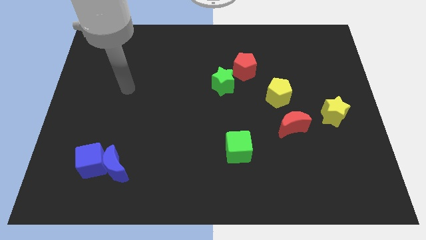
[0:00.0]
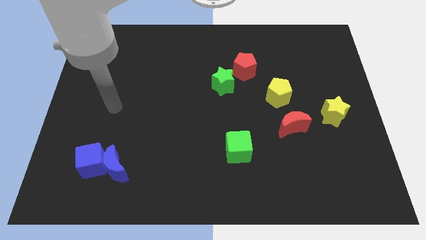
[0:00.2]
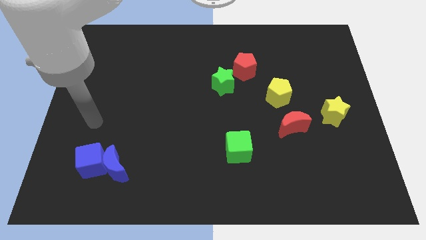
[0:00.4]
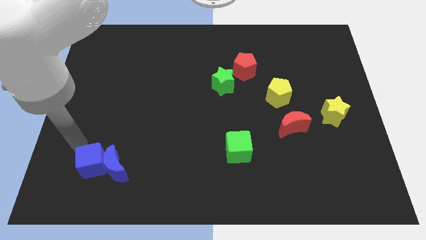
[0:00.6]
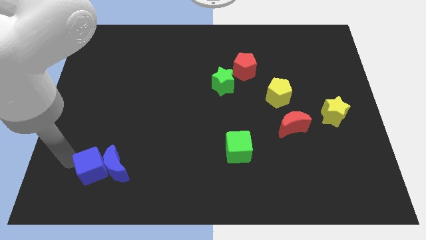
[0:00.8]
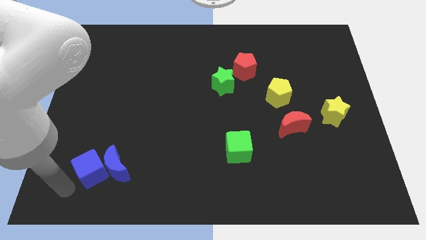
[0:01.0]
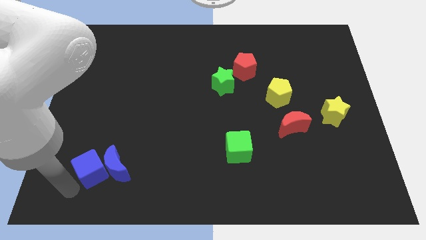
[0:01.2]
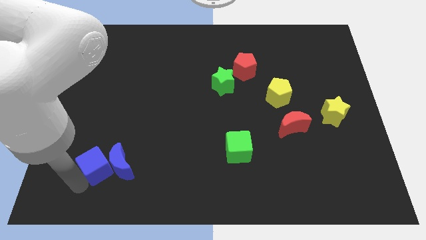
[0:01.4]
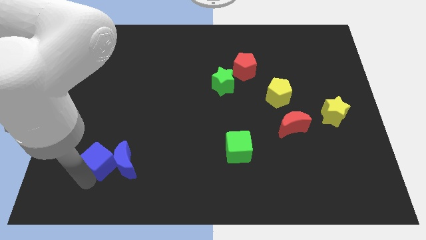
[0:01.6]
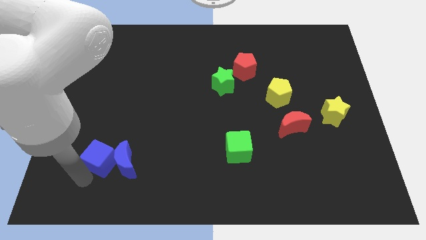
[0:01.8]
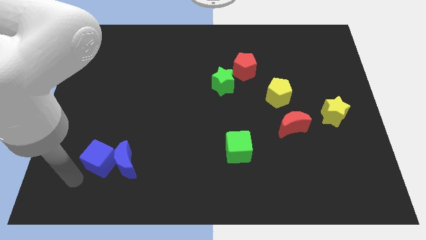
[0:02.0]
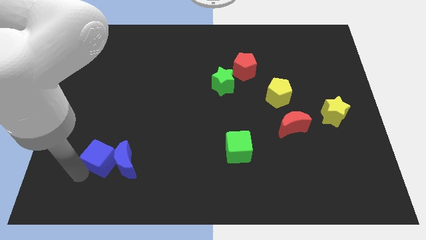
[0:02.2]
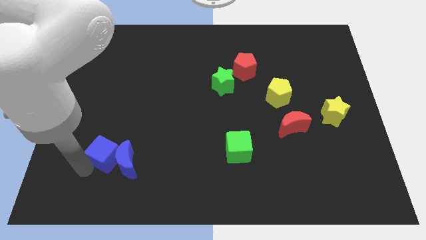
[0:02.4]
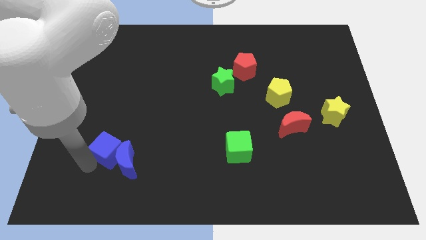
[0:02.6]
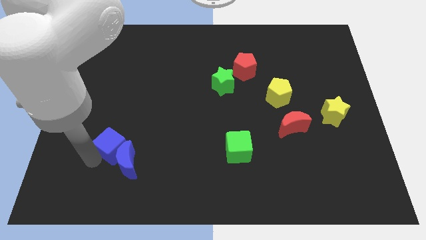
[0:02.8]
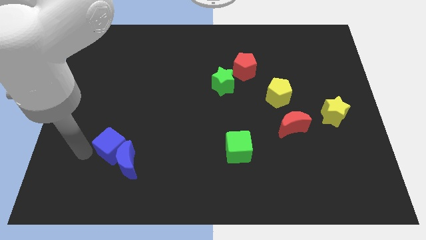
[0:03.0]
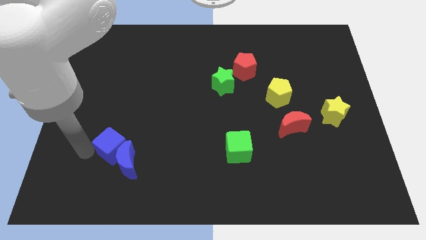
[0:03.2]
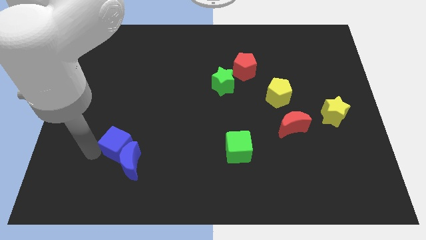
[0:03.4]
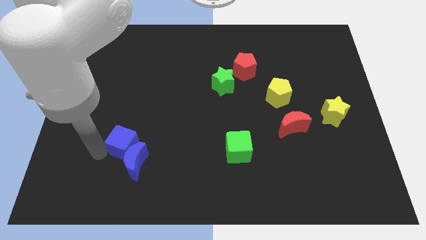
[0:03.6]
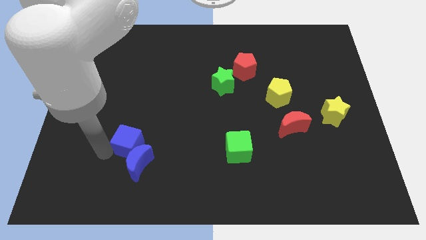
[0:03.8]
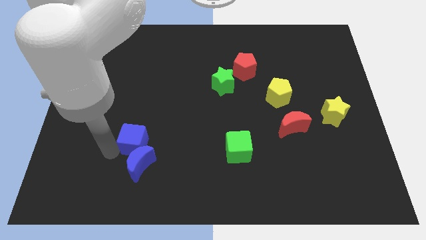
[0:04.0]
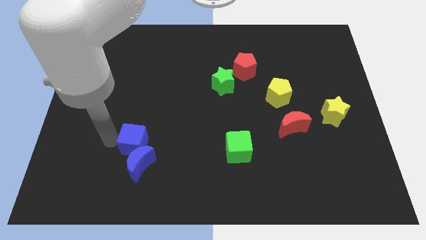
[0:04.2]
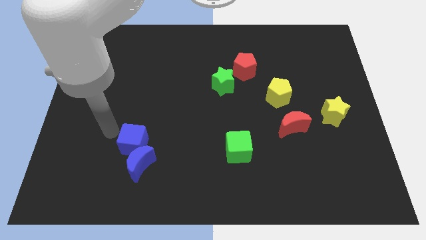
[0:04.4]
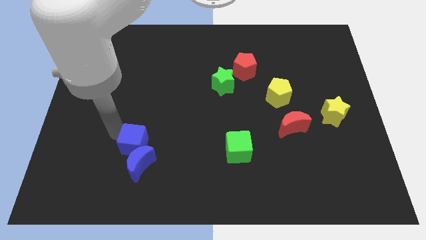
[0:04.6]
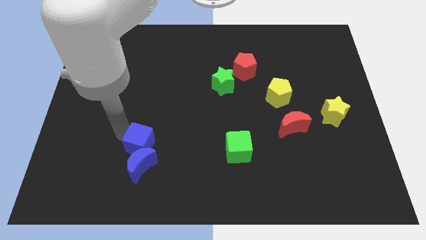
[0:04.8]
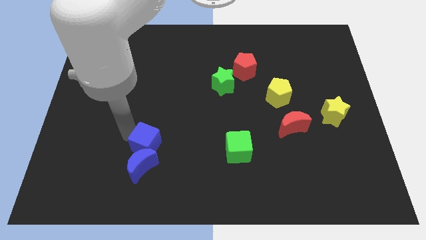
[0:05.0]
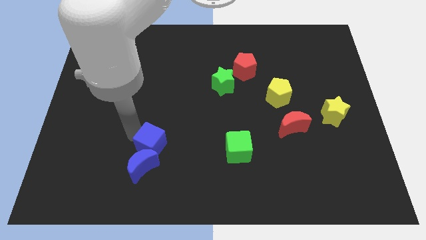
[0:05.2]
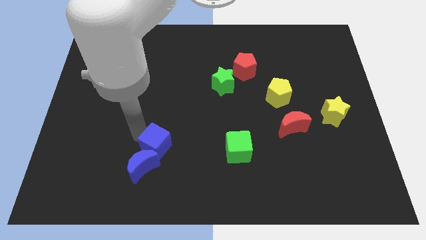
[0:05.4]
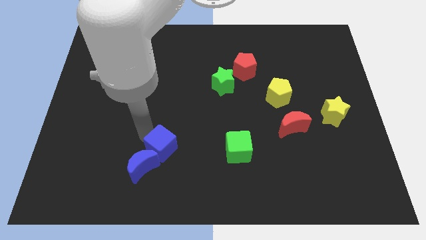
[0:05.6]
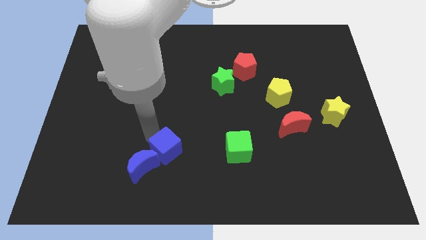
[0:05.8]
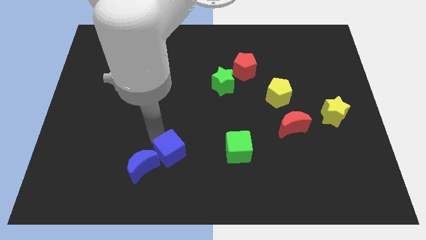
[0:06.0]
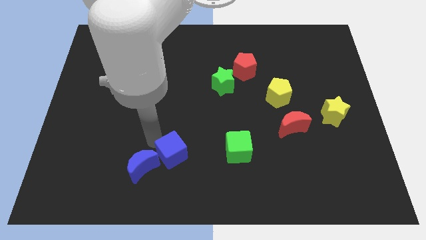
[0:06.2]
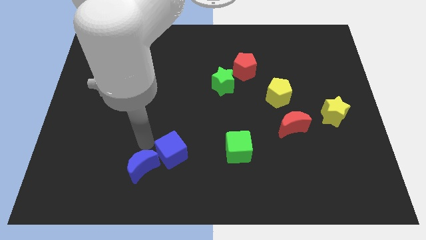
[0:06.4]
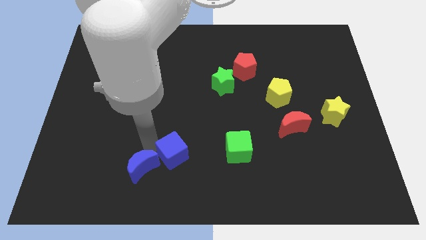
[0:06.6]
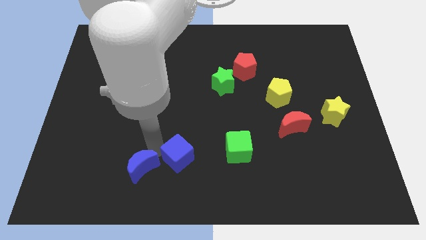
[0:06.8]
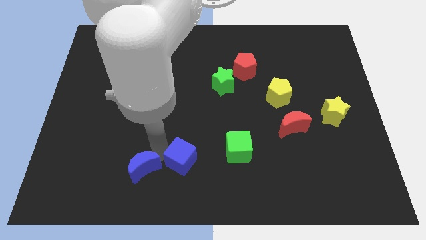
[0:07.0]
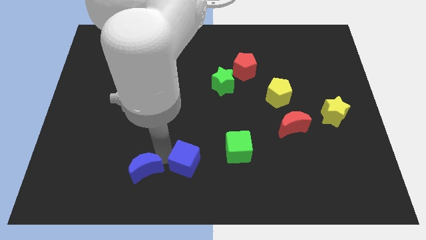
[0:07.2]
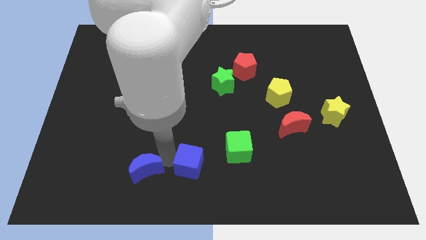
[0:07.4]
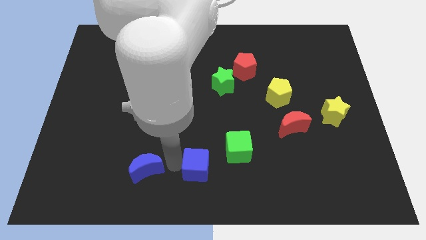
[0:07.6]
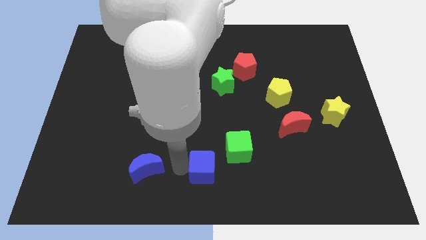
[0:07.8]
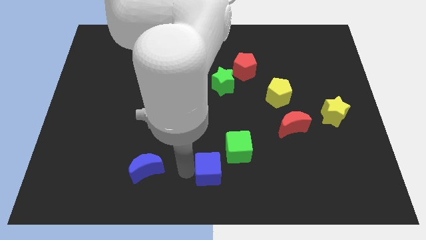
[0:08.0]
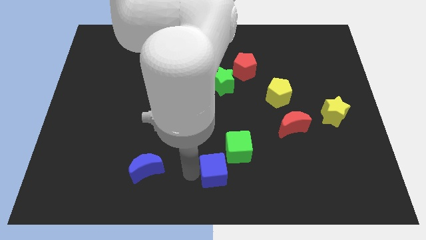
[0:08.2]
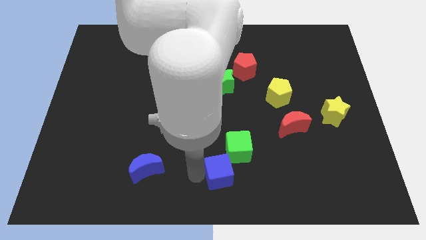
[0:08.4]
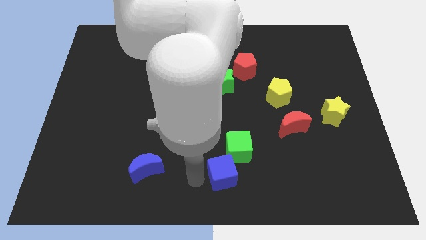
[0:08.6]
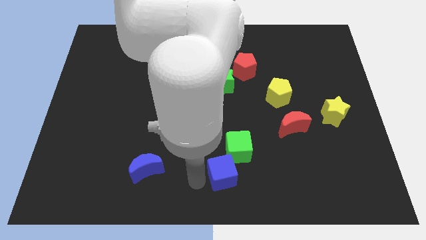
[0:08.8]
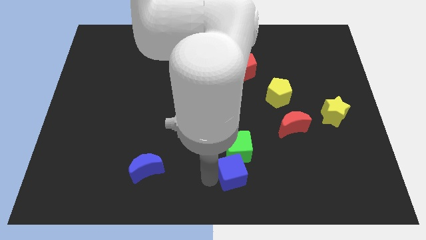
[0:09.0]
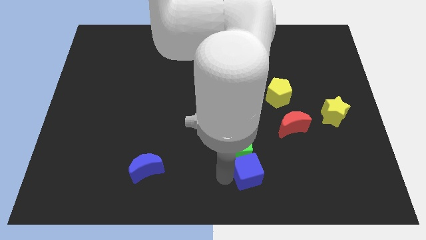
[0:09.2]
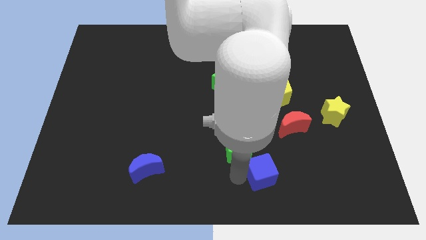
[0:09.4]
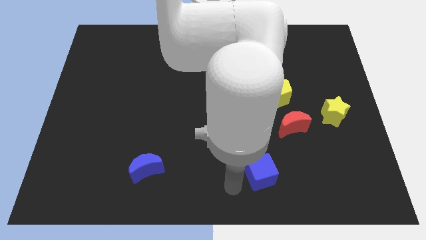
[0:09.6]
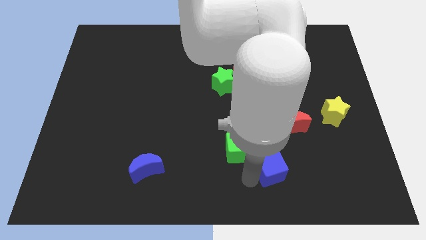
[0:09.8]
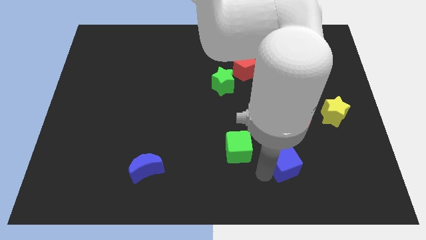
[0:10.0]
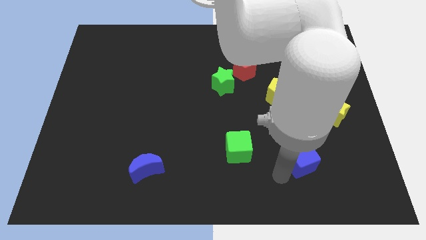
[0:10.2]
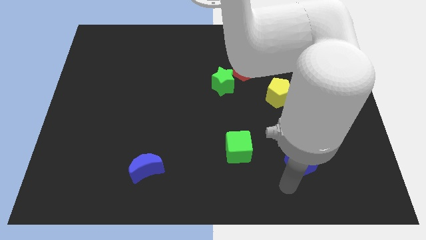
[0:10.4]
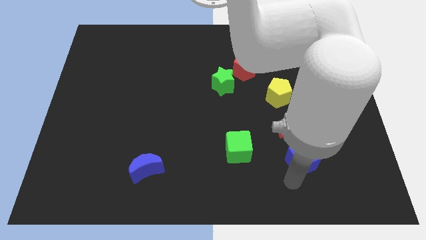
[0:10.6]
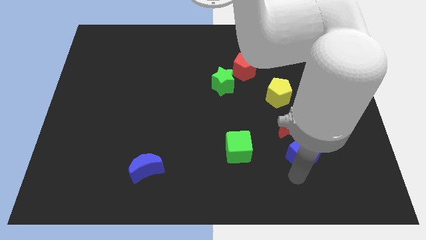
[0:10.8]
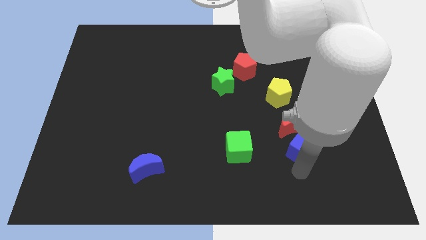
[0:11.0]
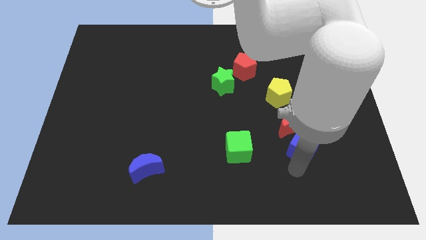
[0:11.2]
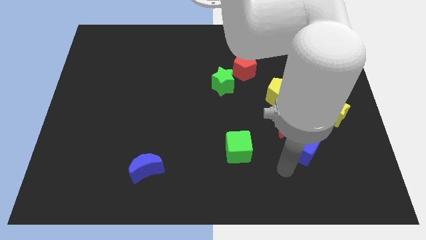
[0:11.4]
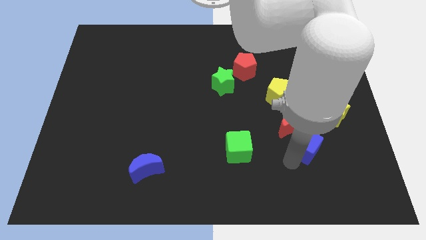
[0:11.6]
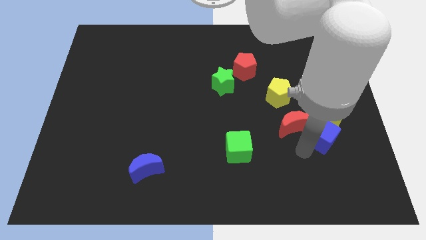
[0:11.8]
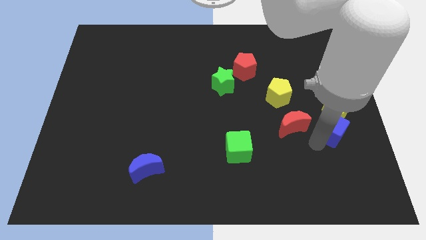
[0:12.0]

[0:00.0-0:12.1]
push the blue cube towards the yellow star

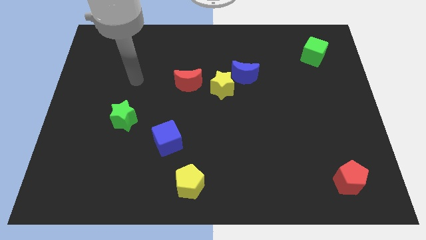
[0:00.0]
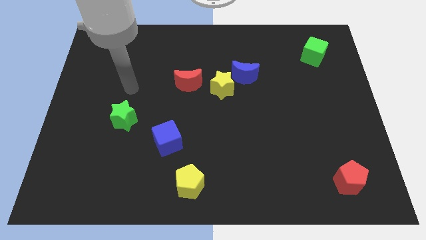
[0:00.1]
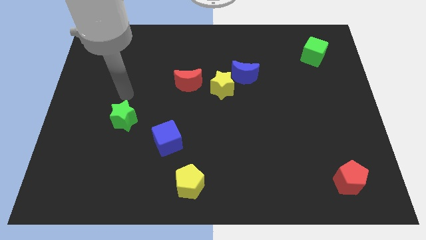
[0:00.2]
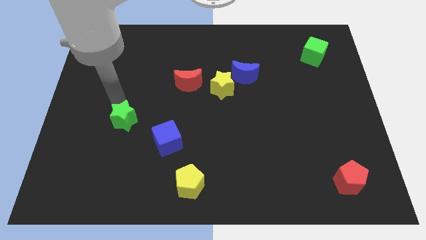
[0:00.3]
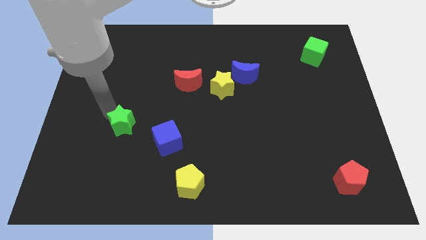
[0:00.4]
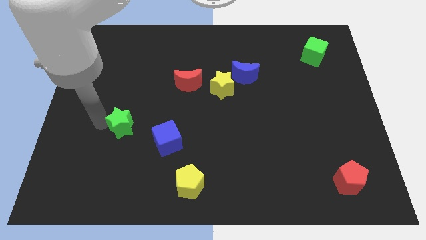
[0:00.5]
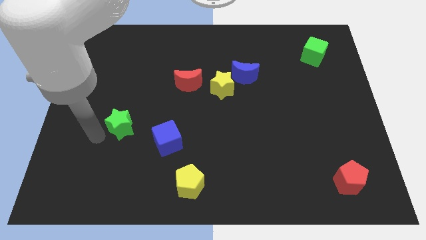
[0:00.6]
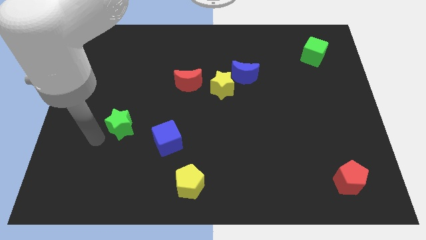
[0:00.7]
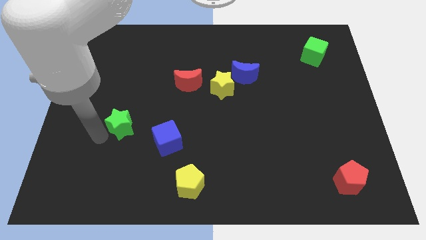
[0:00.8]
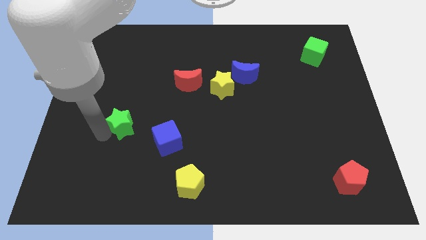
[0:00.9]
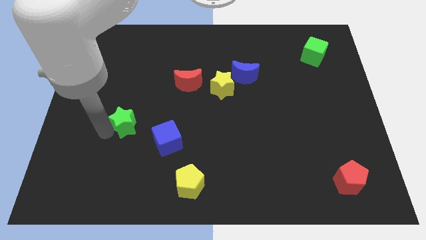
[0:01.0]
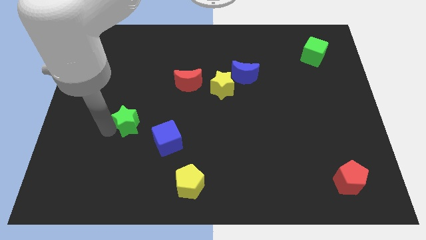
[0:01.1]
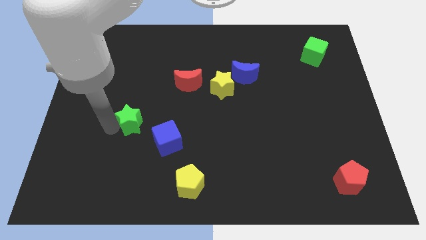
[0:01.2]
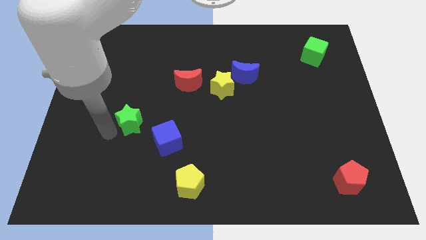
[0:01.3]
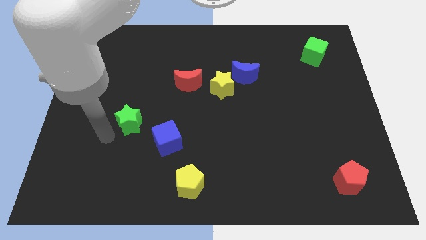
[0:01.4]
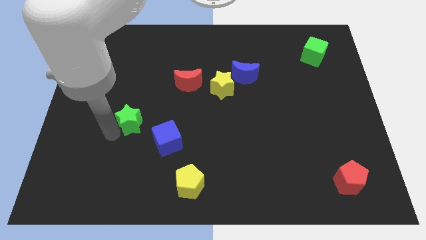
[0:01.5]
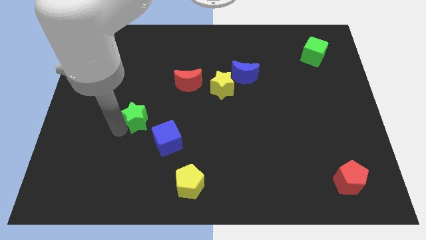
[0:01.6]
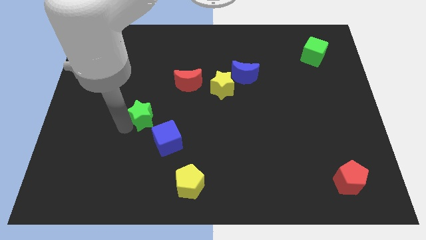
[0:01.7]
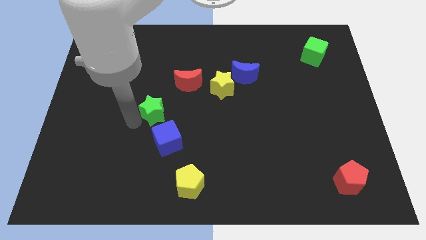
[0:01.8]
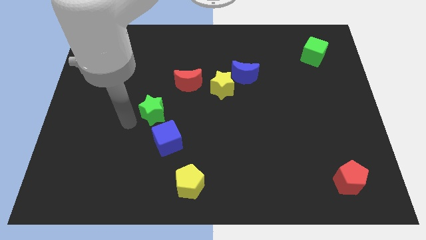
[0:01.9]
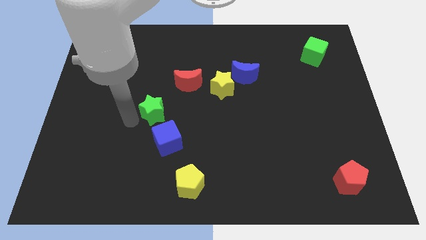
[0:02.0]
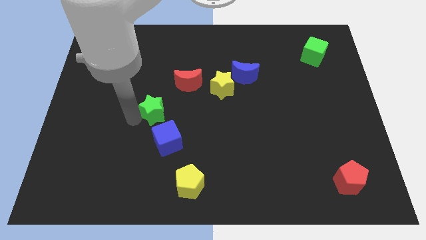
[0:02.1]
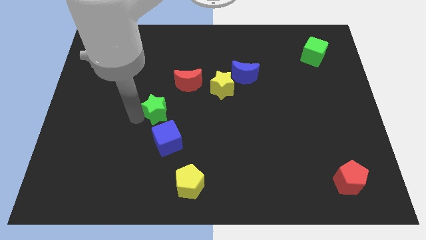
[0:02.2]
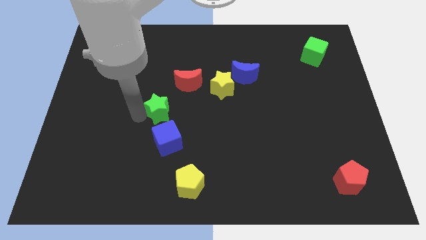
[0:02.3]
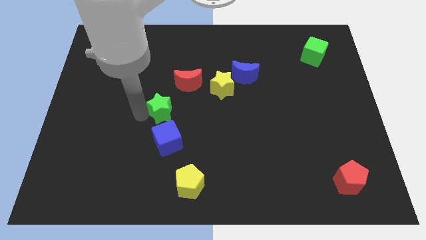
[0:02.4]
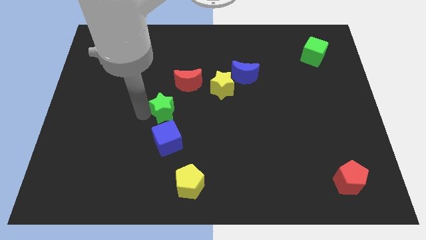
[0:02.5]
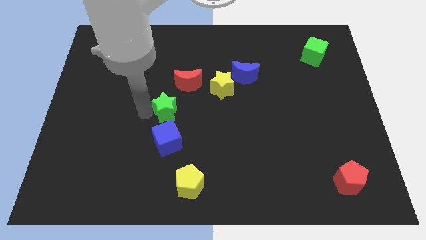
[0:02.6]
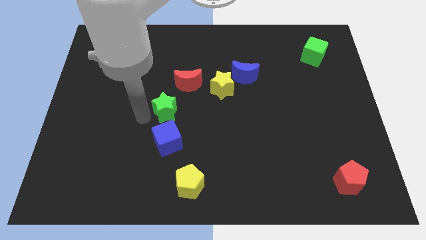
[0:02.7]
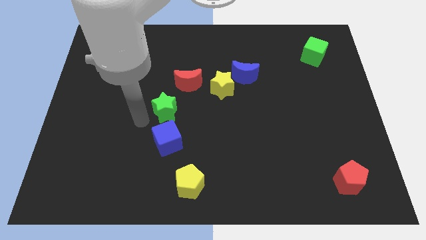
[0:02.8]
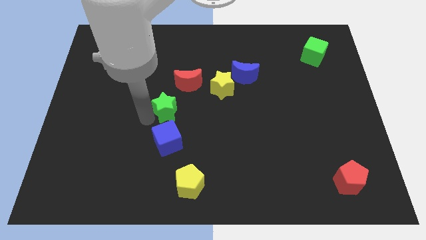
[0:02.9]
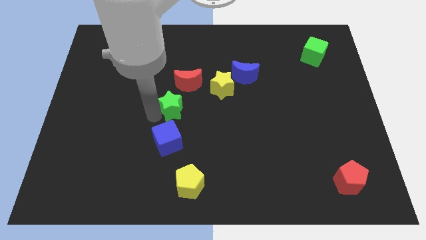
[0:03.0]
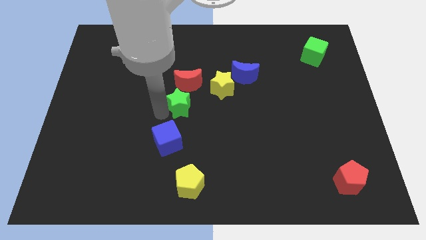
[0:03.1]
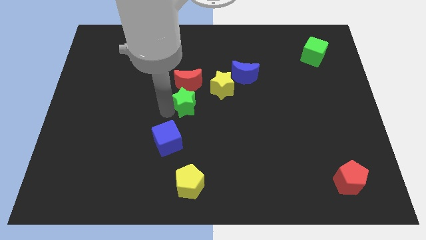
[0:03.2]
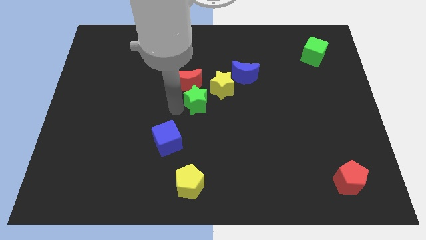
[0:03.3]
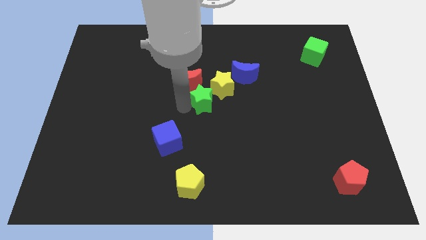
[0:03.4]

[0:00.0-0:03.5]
slide the green star next to the yellow star
